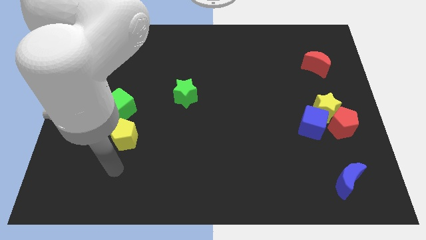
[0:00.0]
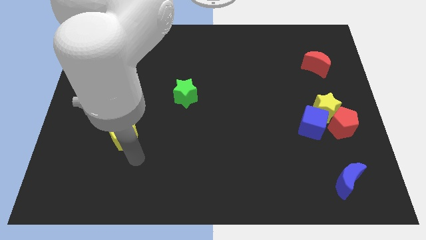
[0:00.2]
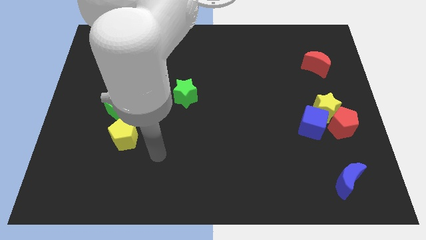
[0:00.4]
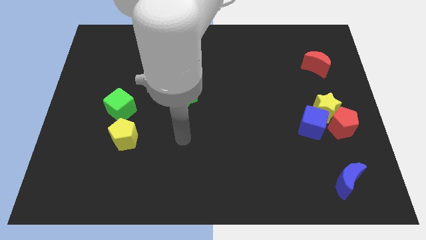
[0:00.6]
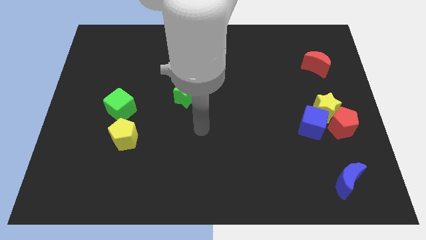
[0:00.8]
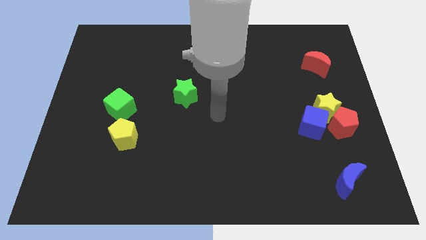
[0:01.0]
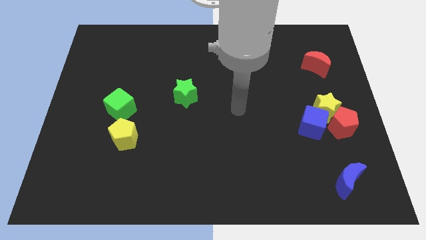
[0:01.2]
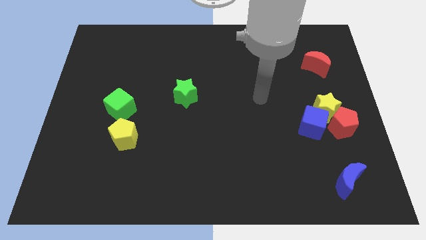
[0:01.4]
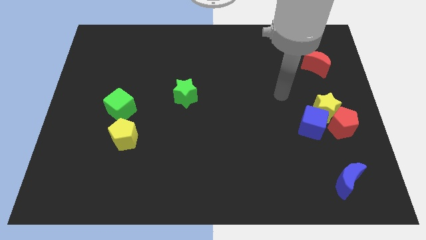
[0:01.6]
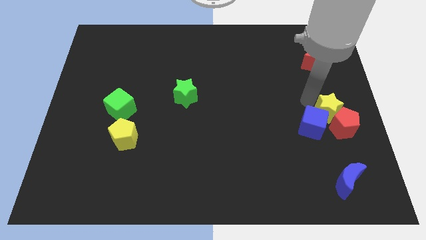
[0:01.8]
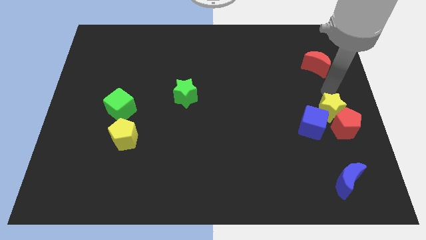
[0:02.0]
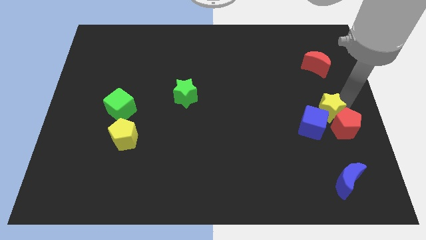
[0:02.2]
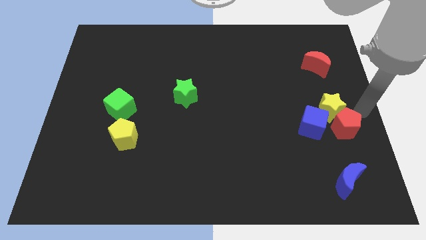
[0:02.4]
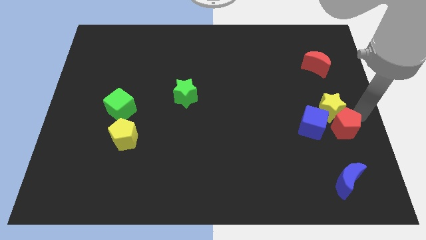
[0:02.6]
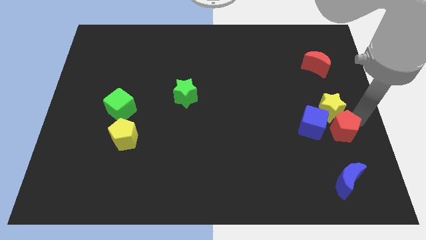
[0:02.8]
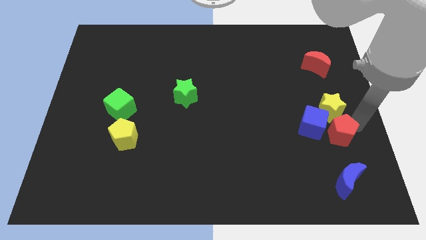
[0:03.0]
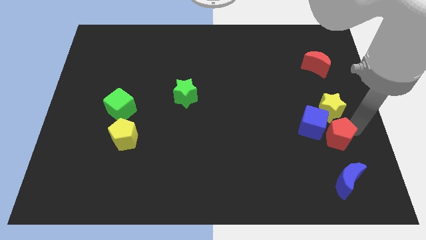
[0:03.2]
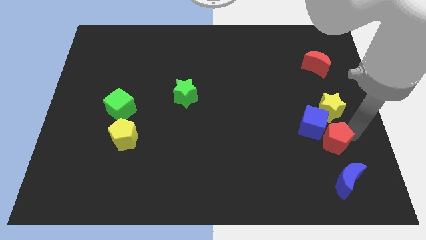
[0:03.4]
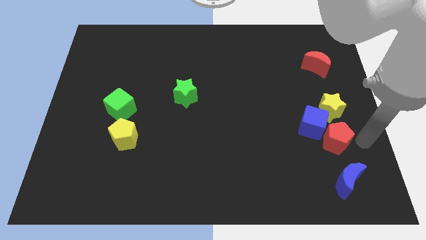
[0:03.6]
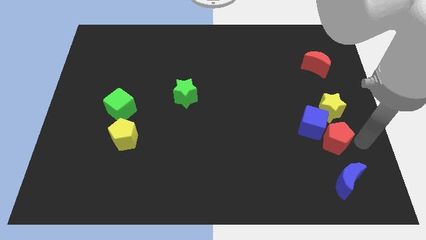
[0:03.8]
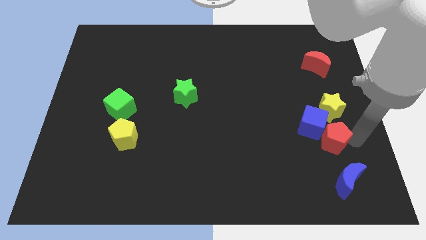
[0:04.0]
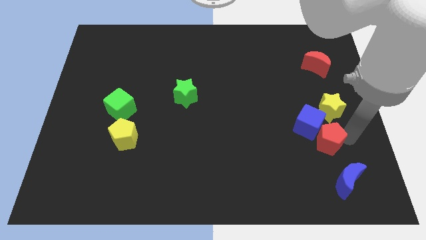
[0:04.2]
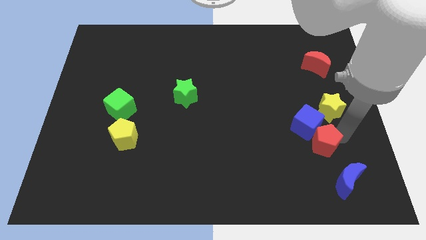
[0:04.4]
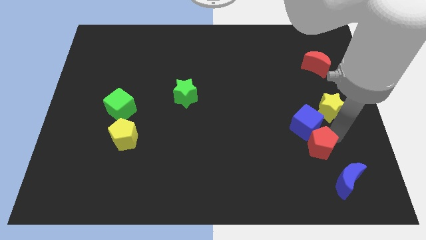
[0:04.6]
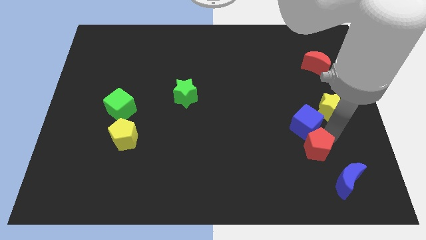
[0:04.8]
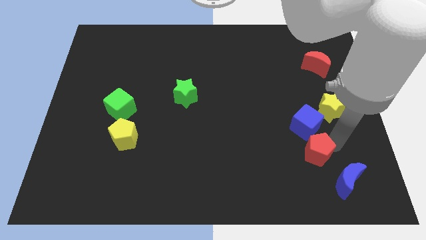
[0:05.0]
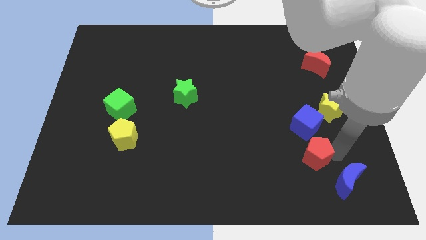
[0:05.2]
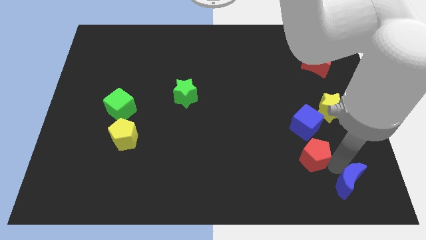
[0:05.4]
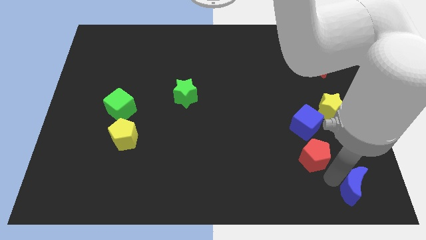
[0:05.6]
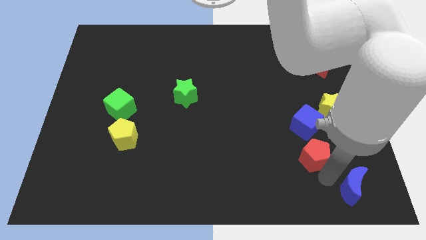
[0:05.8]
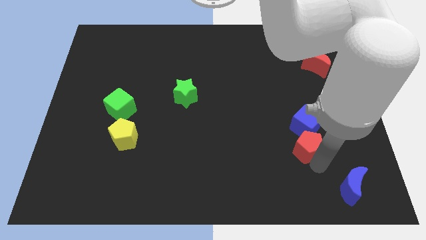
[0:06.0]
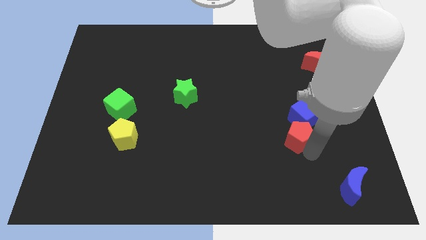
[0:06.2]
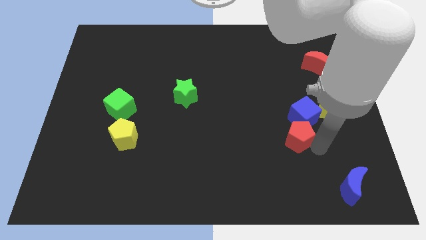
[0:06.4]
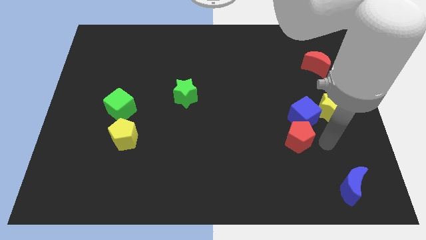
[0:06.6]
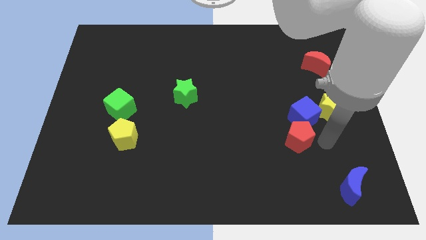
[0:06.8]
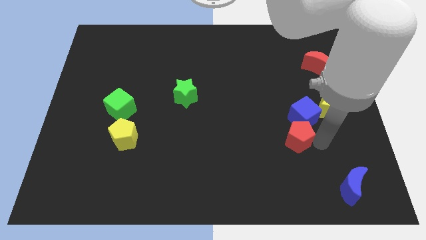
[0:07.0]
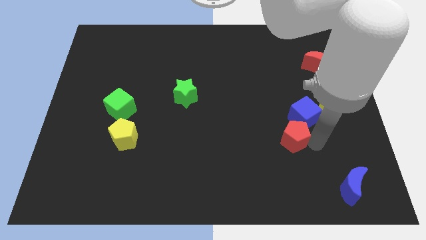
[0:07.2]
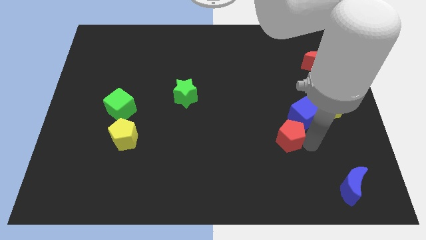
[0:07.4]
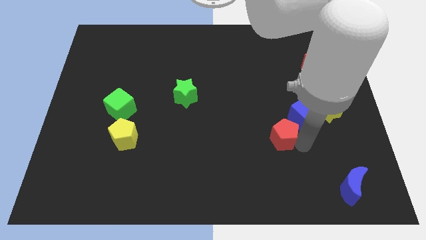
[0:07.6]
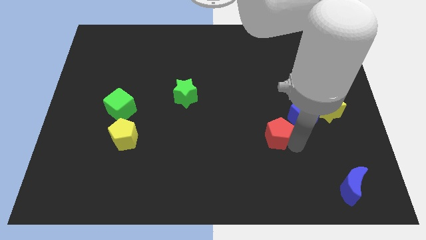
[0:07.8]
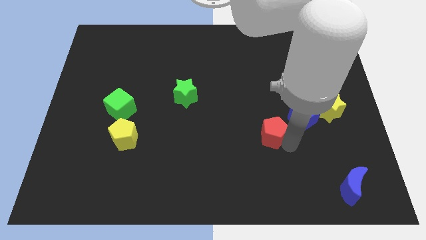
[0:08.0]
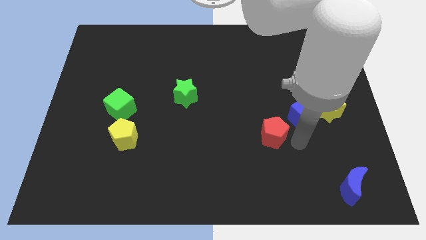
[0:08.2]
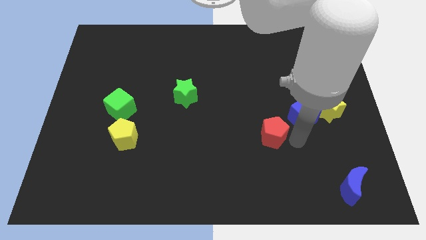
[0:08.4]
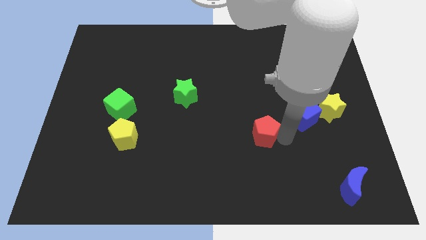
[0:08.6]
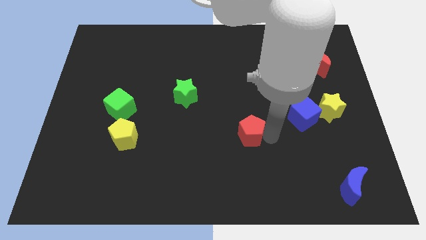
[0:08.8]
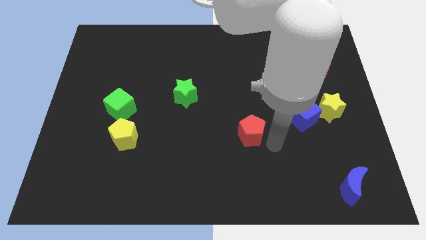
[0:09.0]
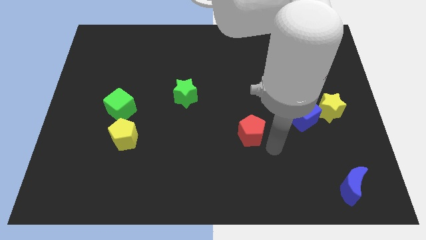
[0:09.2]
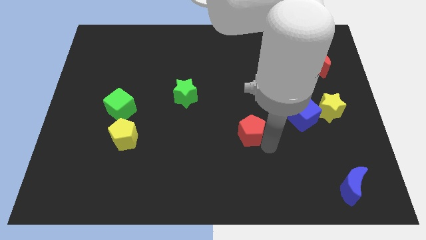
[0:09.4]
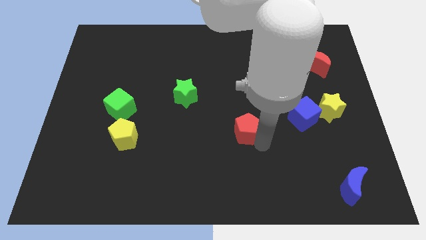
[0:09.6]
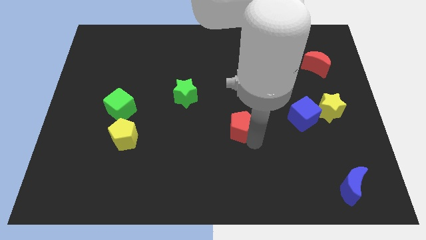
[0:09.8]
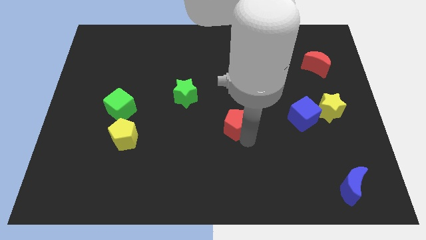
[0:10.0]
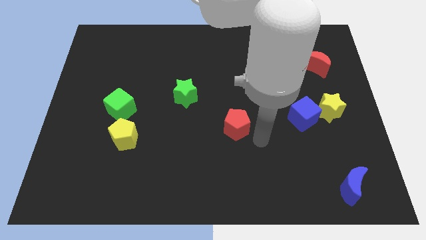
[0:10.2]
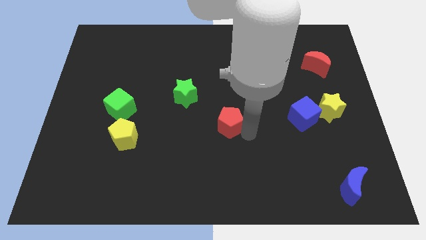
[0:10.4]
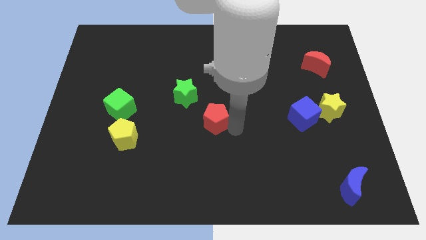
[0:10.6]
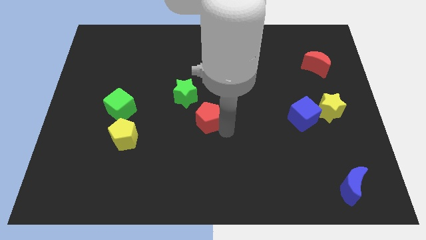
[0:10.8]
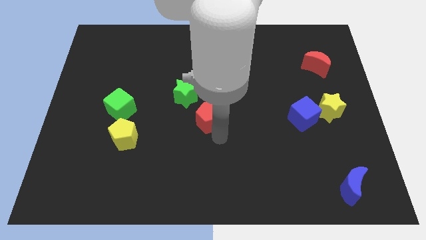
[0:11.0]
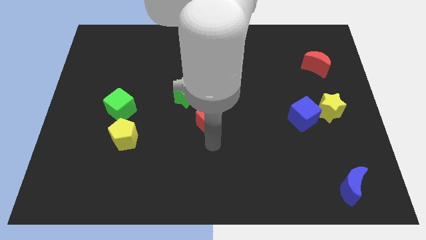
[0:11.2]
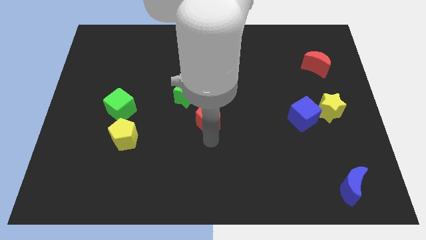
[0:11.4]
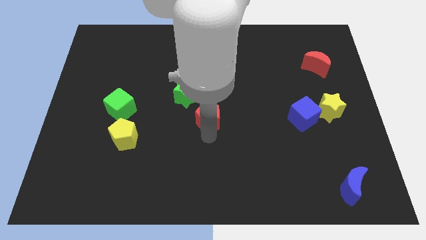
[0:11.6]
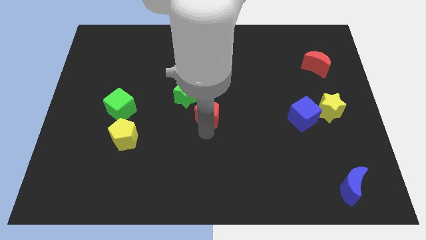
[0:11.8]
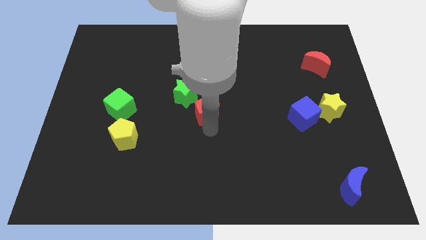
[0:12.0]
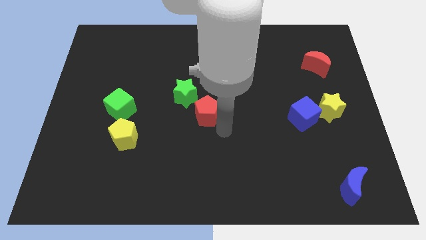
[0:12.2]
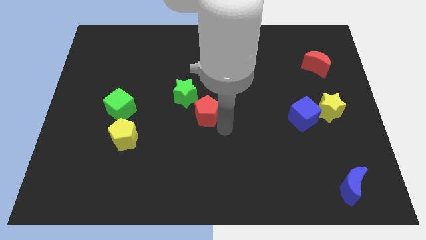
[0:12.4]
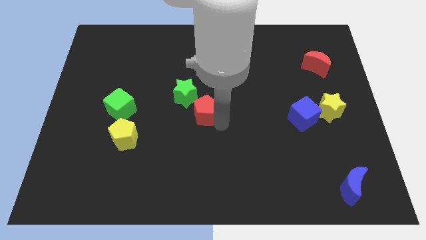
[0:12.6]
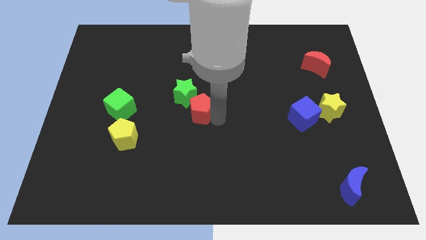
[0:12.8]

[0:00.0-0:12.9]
slide the red pentagon to the green star

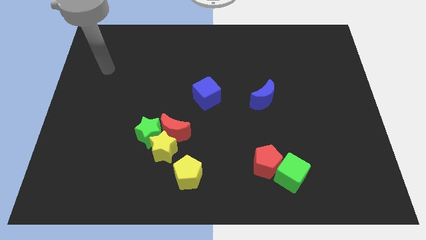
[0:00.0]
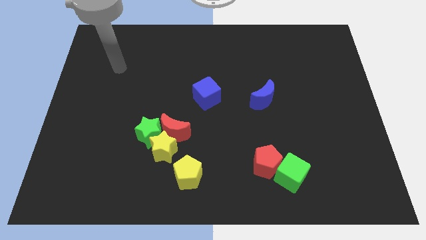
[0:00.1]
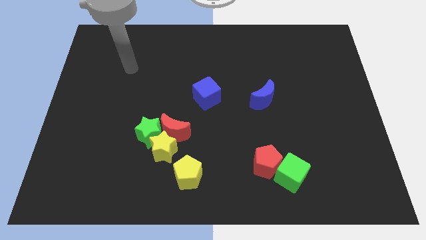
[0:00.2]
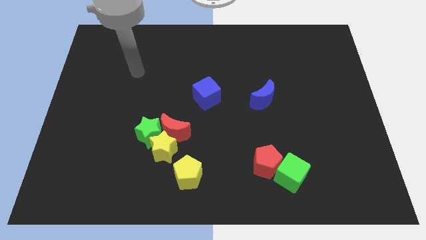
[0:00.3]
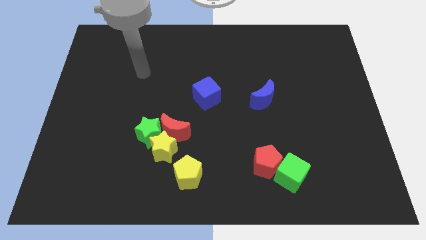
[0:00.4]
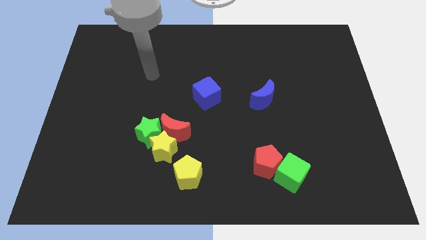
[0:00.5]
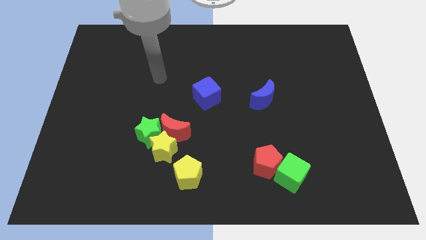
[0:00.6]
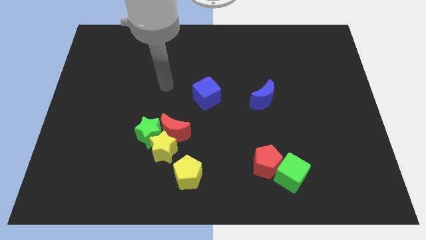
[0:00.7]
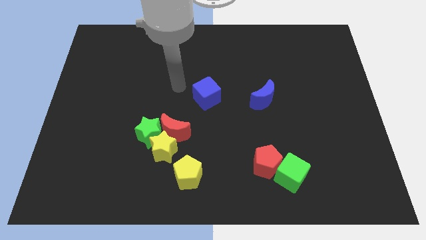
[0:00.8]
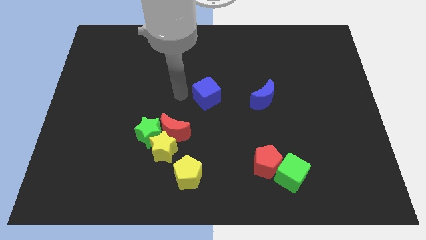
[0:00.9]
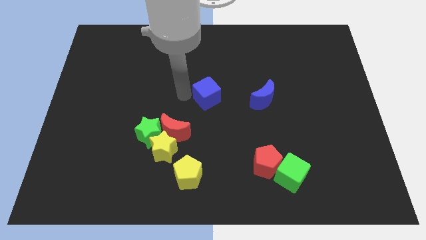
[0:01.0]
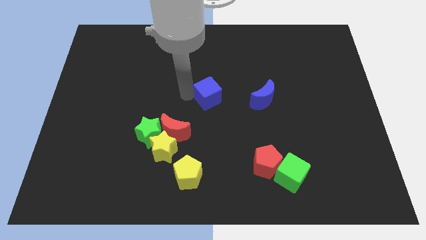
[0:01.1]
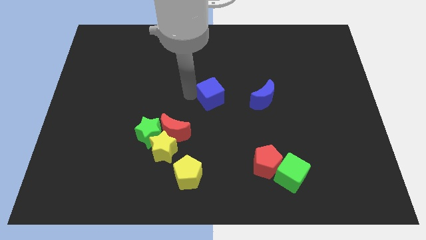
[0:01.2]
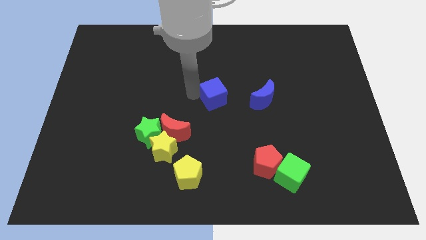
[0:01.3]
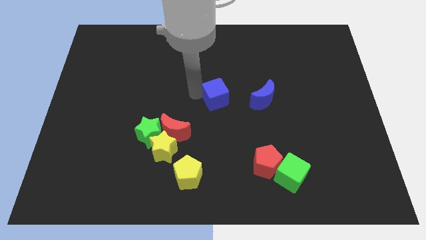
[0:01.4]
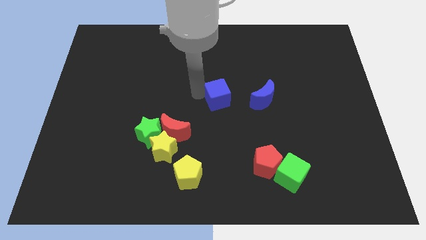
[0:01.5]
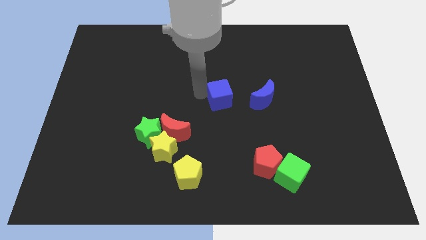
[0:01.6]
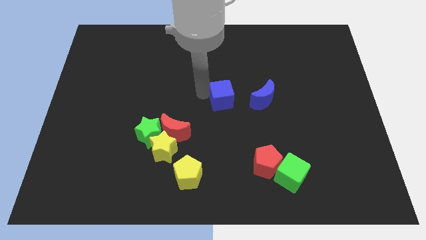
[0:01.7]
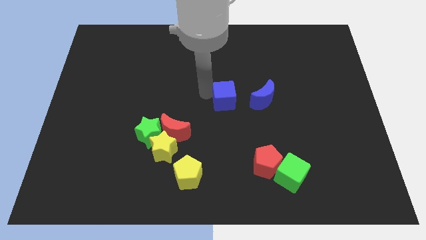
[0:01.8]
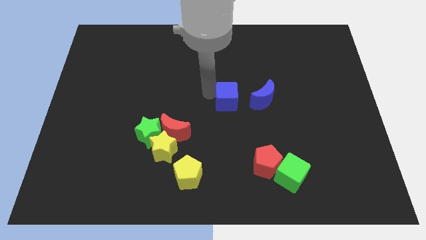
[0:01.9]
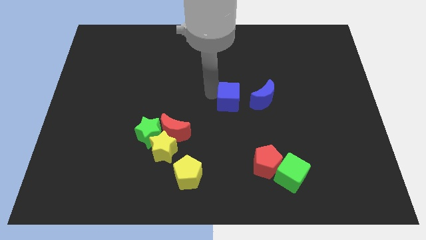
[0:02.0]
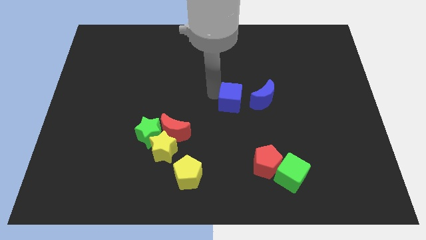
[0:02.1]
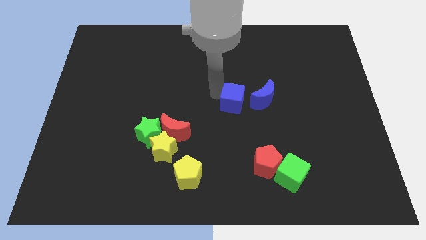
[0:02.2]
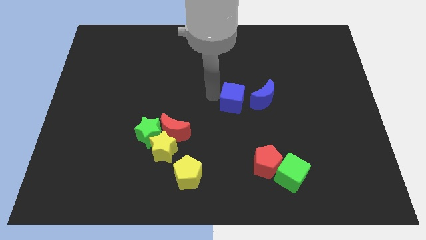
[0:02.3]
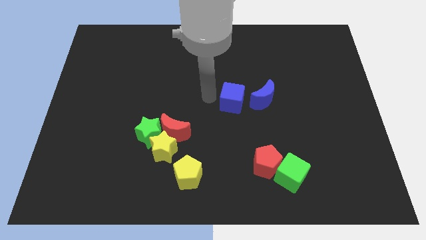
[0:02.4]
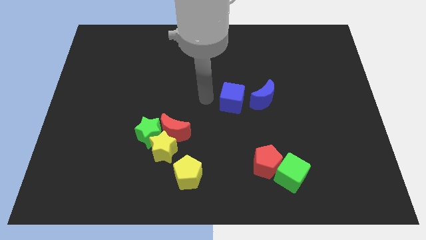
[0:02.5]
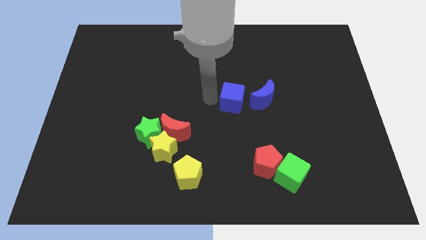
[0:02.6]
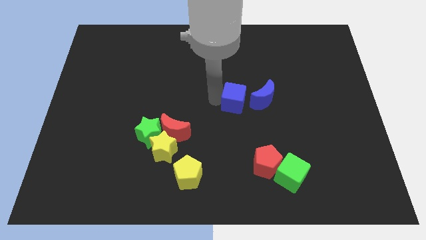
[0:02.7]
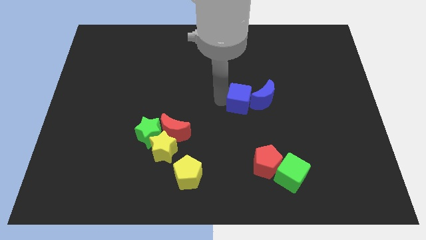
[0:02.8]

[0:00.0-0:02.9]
slide the blue cube next to the blue moon
